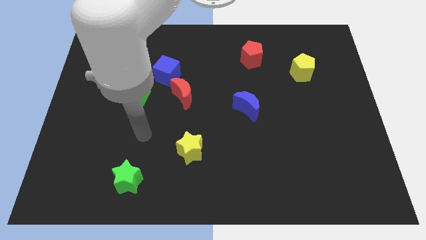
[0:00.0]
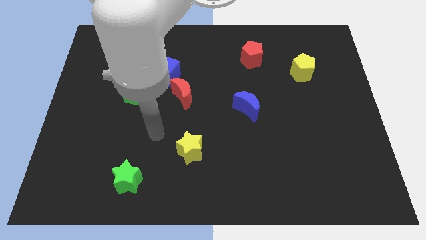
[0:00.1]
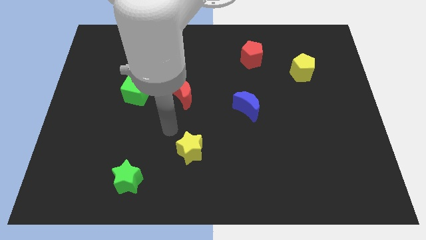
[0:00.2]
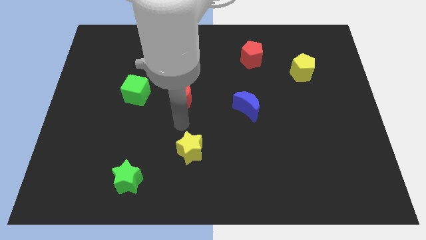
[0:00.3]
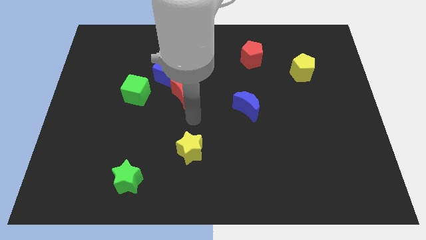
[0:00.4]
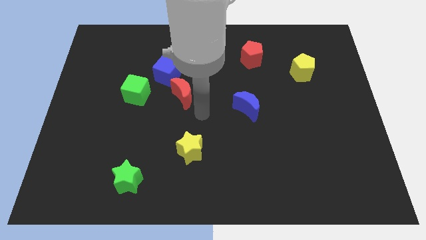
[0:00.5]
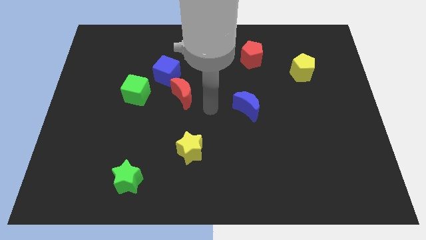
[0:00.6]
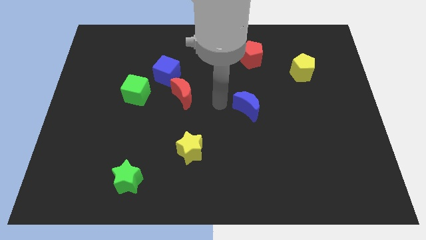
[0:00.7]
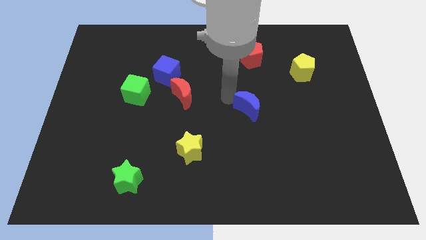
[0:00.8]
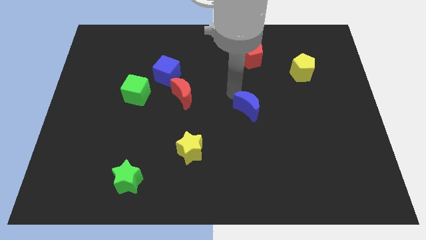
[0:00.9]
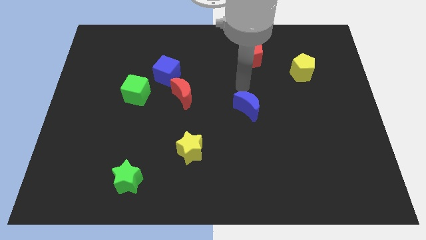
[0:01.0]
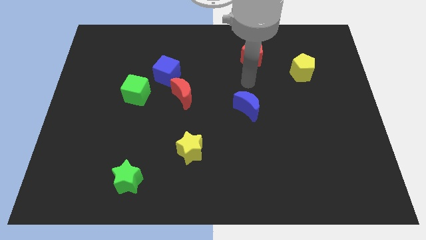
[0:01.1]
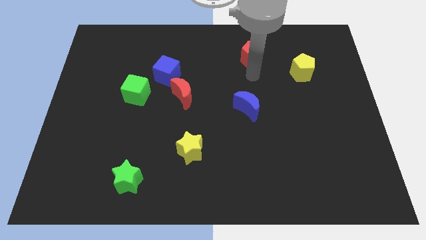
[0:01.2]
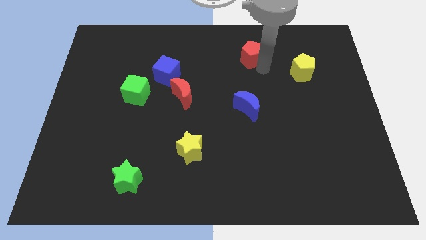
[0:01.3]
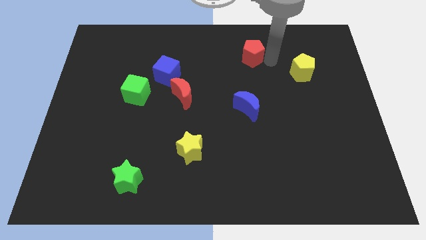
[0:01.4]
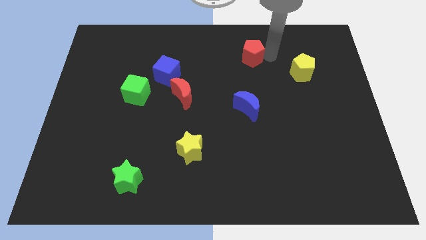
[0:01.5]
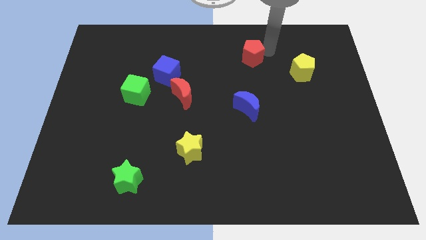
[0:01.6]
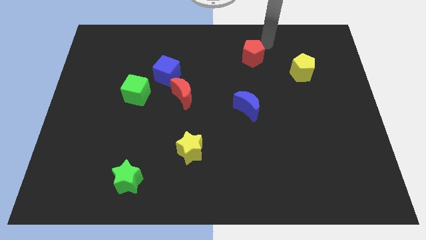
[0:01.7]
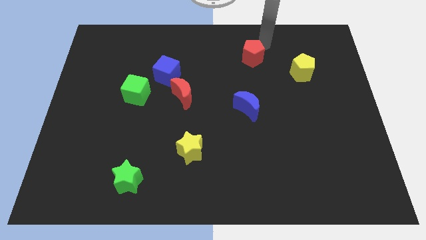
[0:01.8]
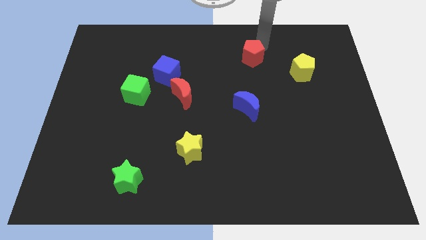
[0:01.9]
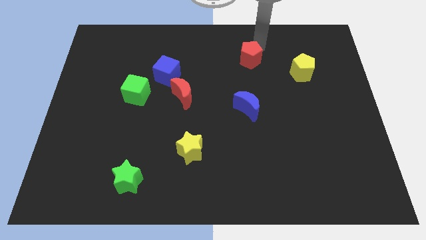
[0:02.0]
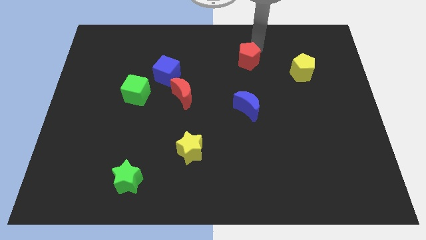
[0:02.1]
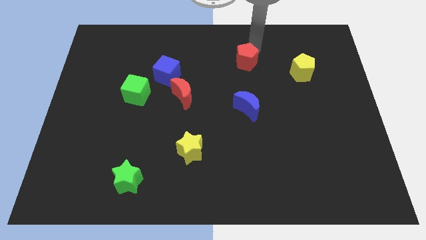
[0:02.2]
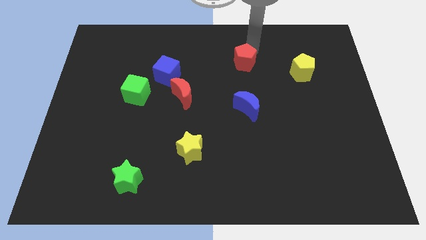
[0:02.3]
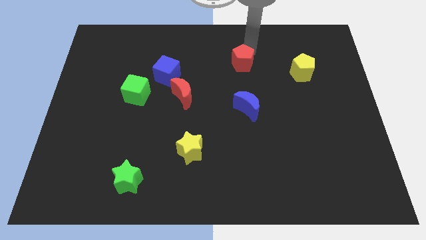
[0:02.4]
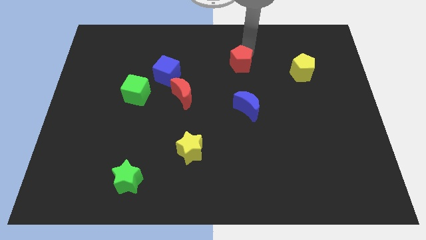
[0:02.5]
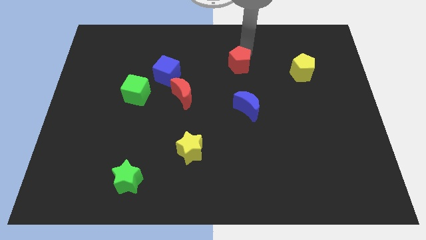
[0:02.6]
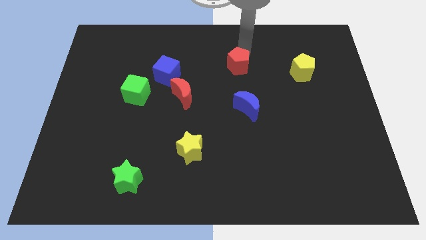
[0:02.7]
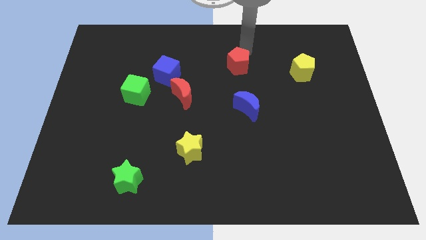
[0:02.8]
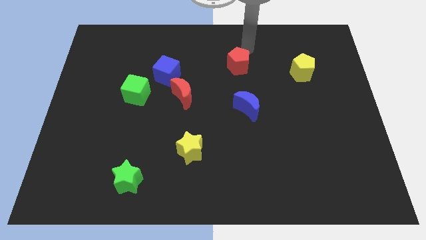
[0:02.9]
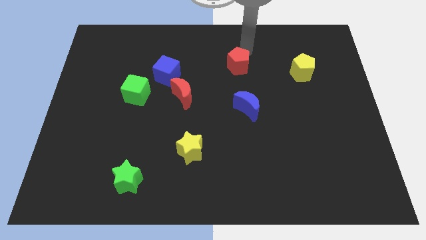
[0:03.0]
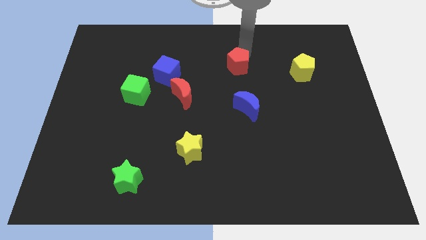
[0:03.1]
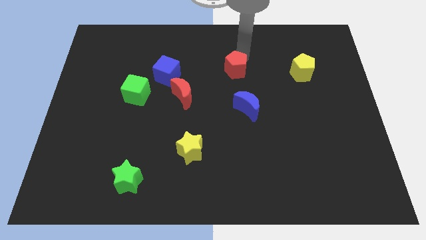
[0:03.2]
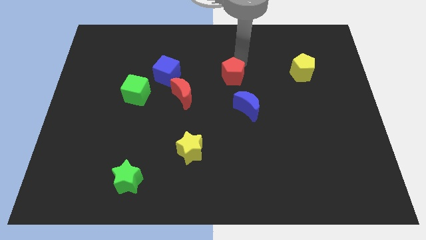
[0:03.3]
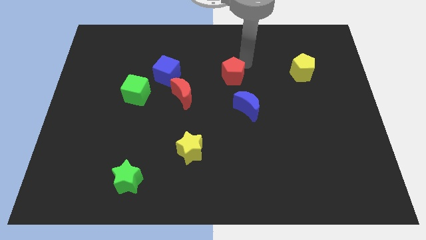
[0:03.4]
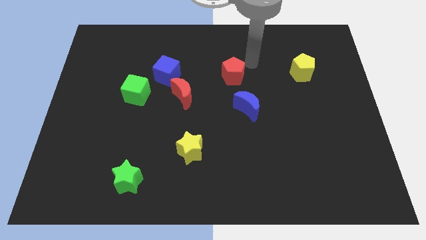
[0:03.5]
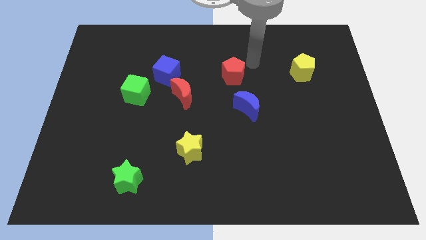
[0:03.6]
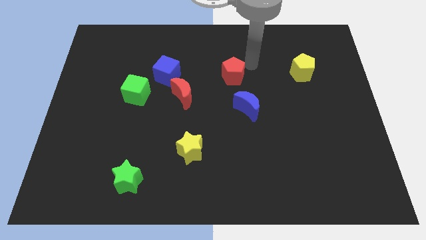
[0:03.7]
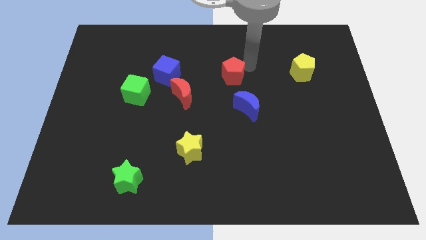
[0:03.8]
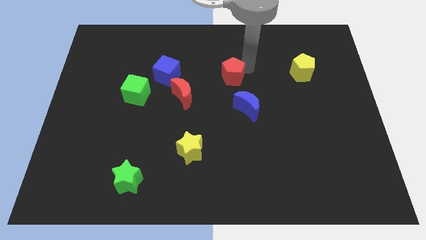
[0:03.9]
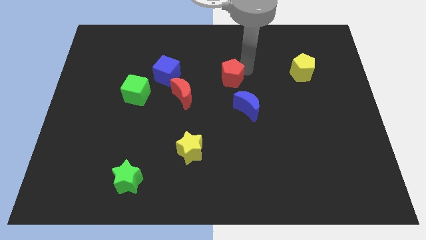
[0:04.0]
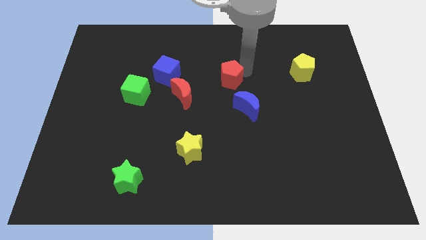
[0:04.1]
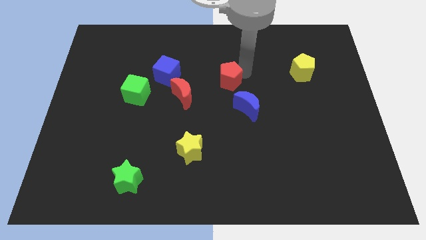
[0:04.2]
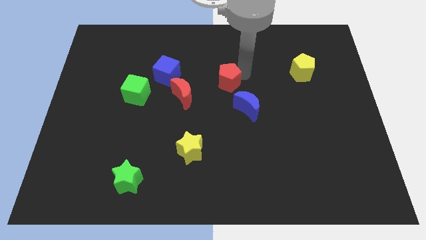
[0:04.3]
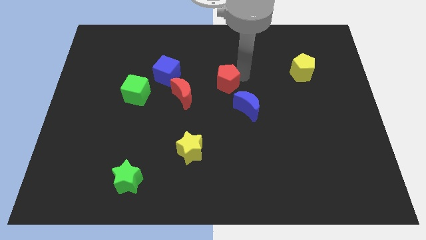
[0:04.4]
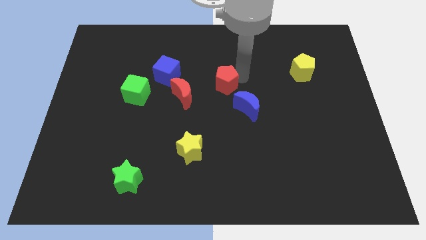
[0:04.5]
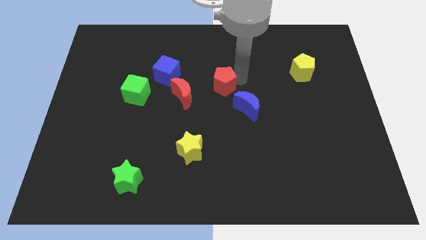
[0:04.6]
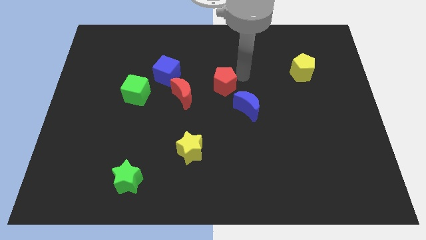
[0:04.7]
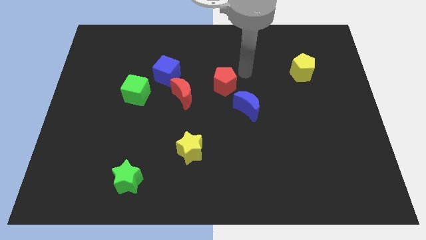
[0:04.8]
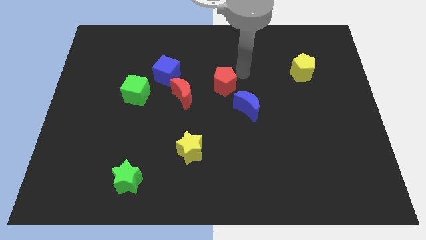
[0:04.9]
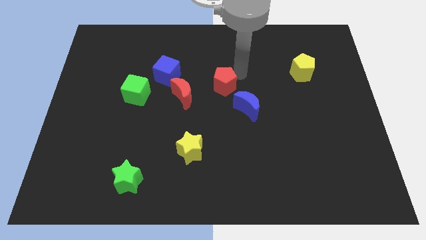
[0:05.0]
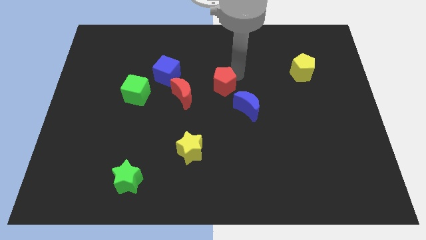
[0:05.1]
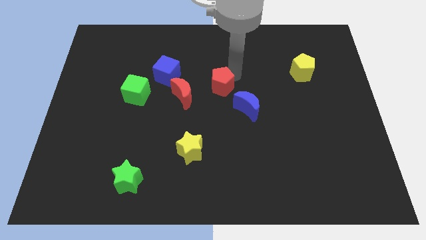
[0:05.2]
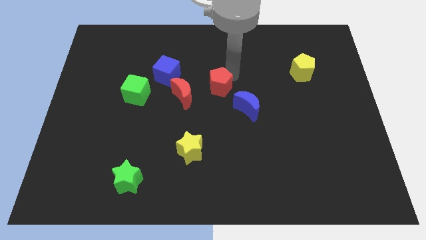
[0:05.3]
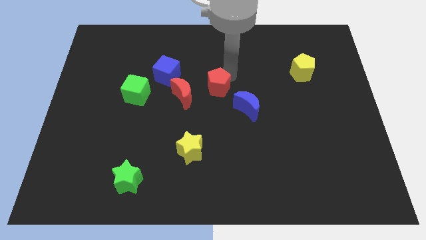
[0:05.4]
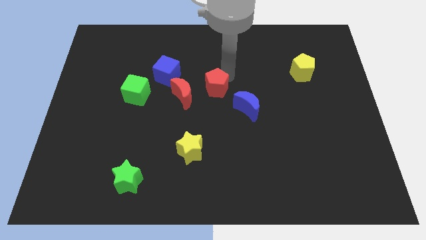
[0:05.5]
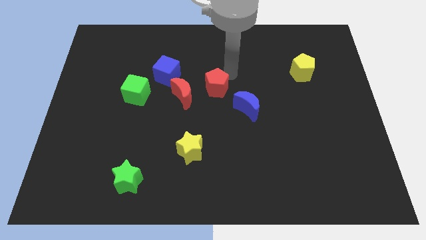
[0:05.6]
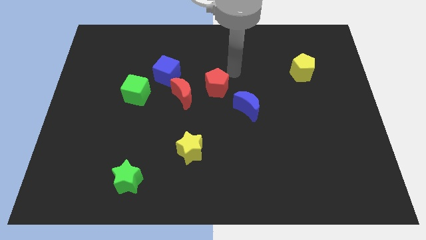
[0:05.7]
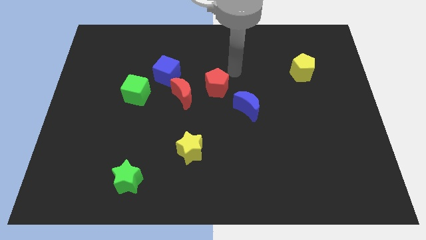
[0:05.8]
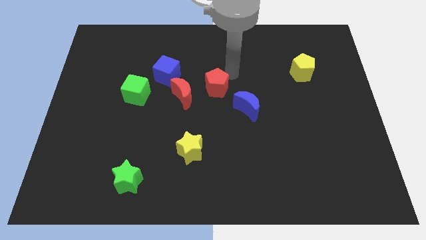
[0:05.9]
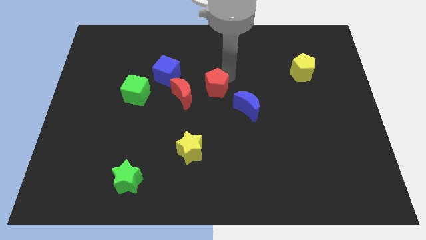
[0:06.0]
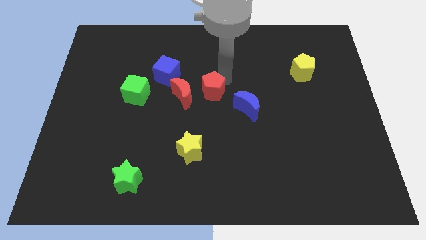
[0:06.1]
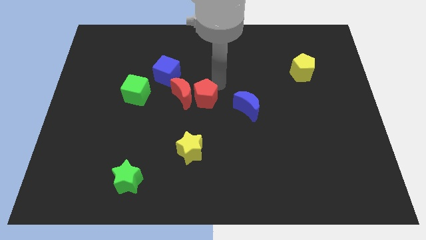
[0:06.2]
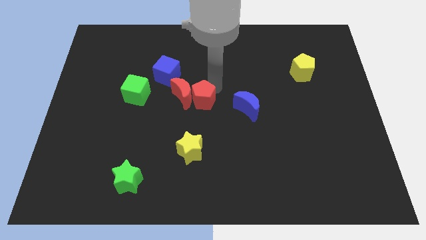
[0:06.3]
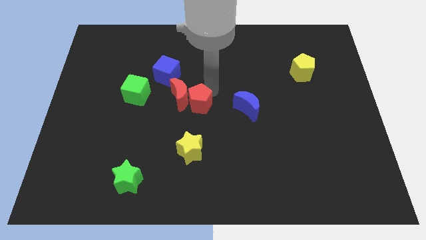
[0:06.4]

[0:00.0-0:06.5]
slide the red pentagon diagonally downwards and to the left

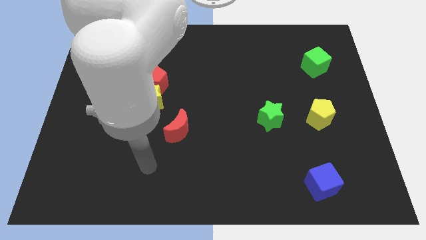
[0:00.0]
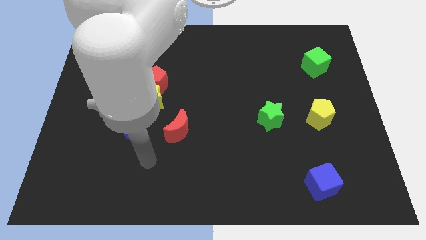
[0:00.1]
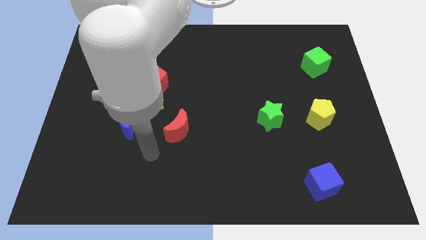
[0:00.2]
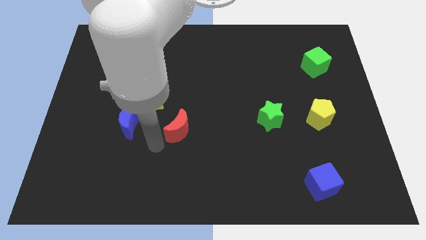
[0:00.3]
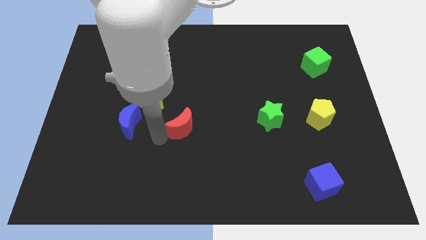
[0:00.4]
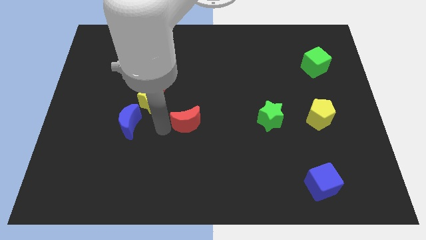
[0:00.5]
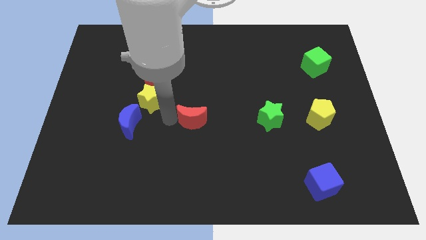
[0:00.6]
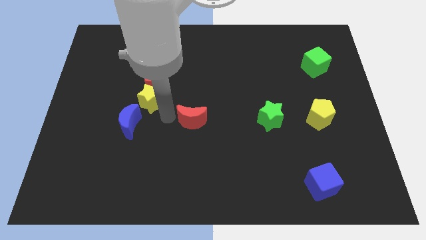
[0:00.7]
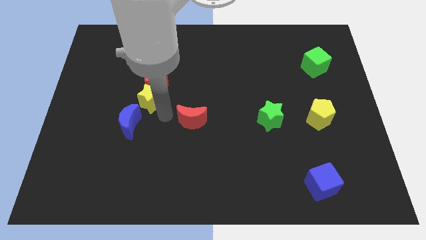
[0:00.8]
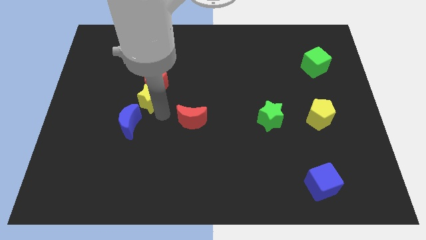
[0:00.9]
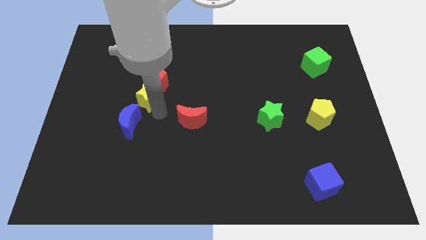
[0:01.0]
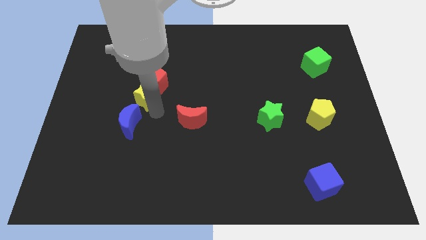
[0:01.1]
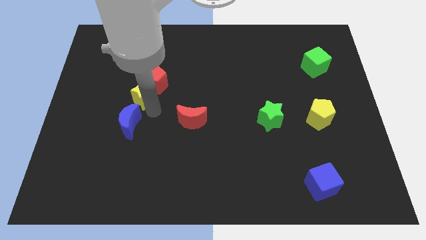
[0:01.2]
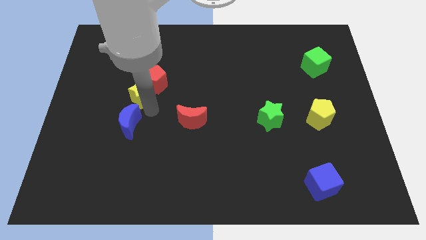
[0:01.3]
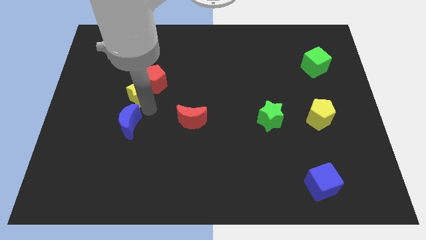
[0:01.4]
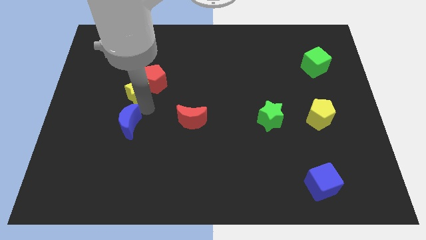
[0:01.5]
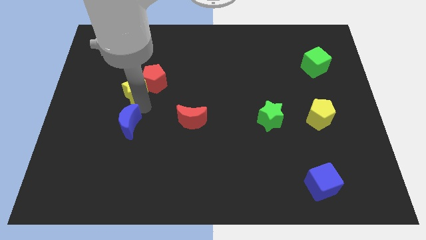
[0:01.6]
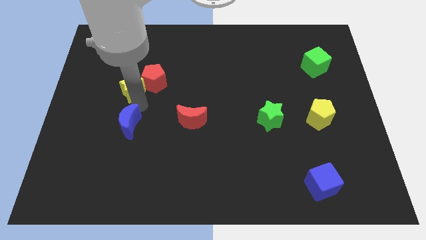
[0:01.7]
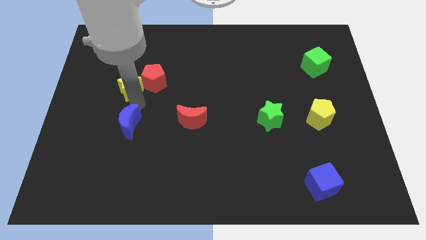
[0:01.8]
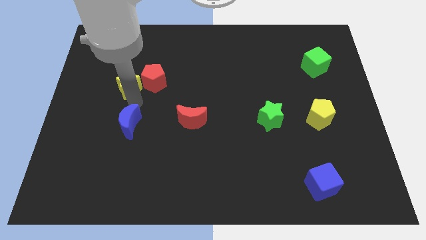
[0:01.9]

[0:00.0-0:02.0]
push the yellow star a bit upwards and then to the left
